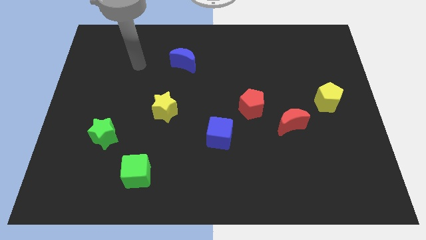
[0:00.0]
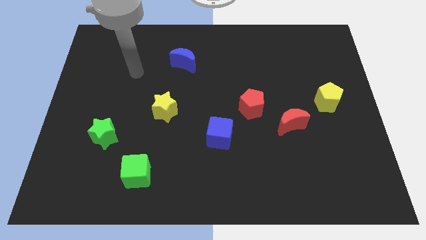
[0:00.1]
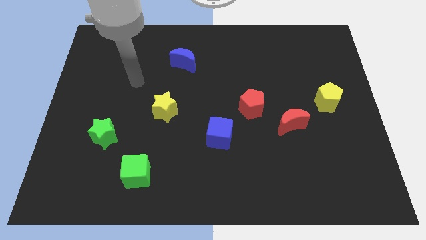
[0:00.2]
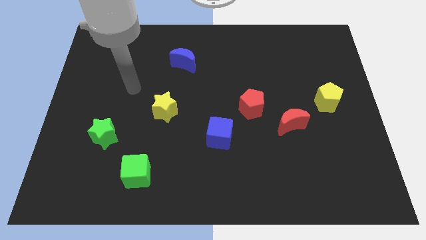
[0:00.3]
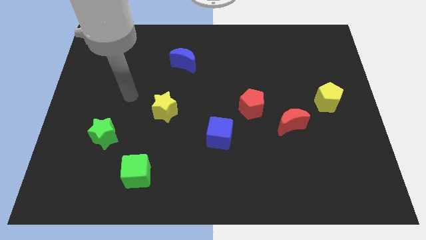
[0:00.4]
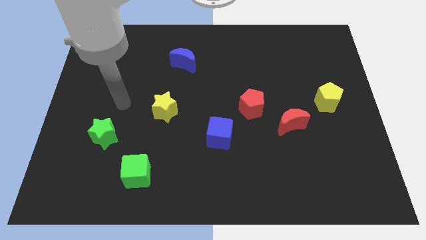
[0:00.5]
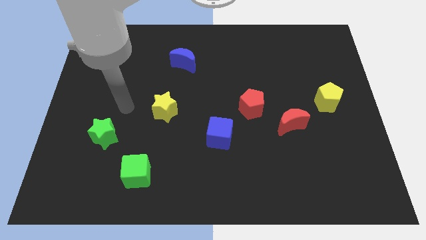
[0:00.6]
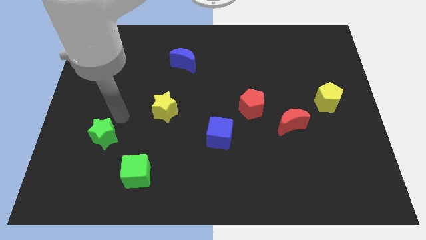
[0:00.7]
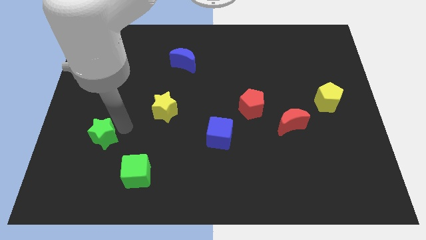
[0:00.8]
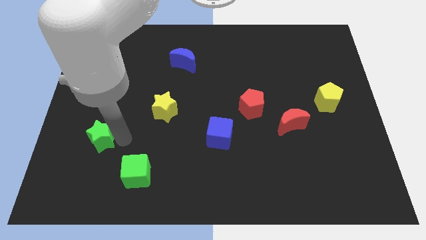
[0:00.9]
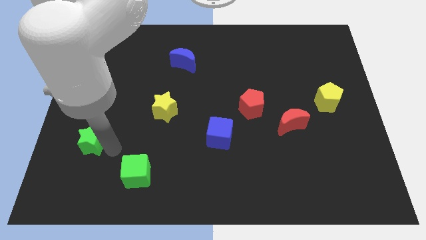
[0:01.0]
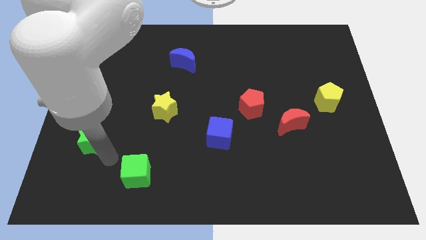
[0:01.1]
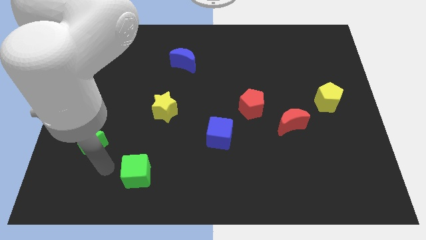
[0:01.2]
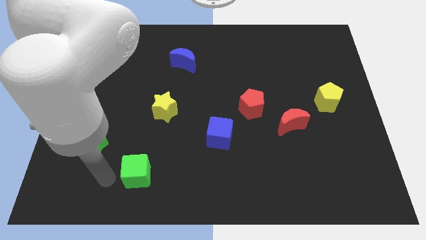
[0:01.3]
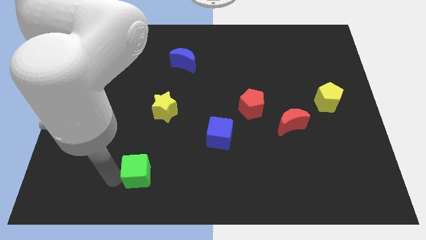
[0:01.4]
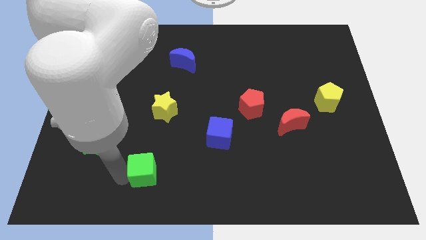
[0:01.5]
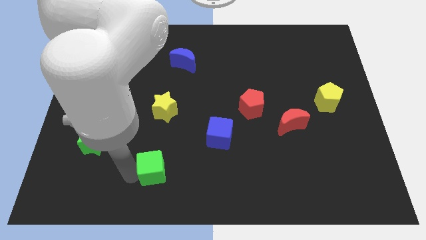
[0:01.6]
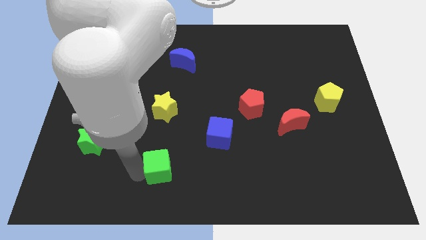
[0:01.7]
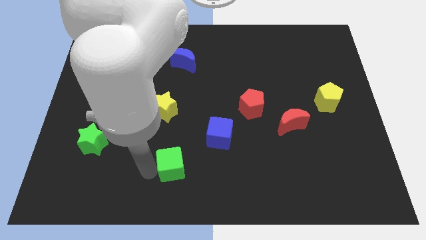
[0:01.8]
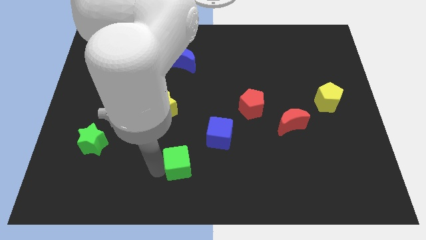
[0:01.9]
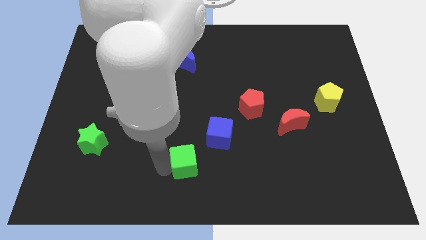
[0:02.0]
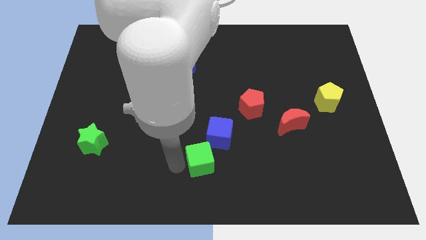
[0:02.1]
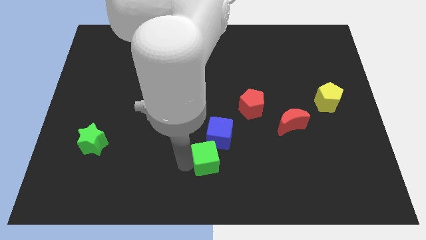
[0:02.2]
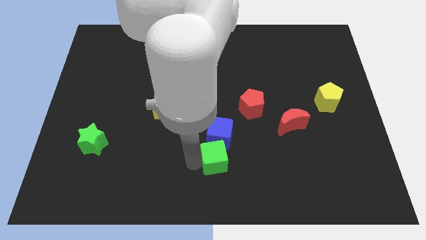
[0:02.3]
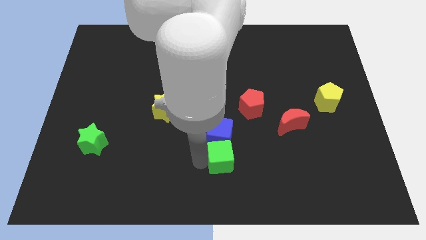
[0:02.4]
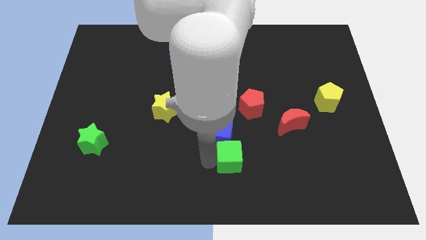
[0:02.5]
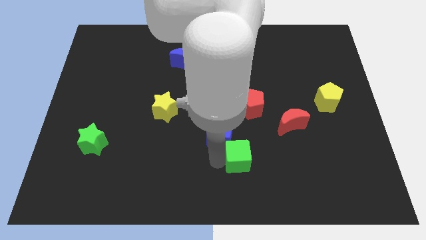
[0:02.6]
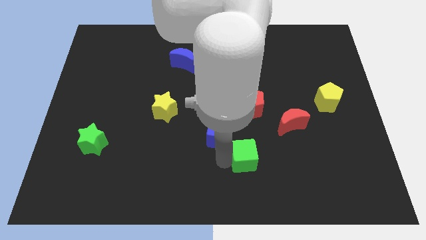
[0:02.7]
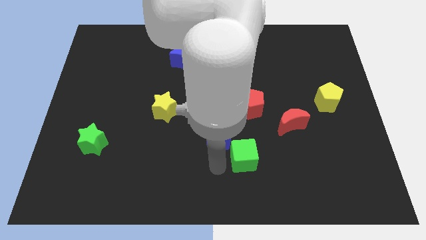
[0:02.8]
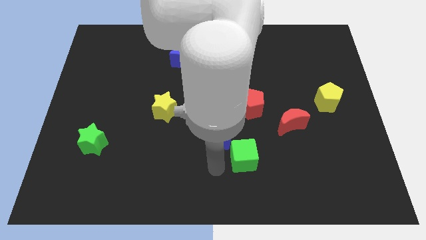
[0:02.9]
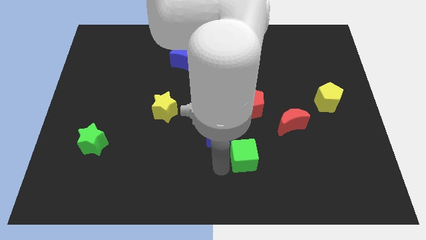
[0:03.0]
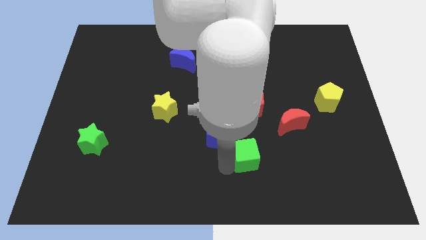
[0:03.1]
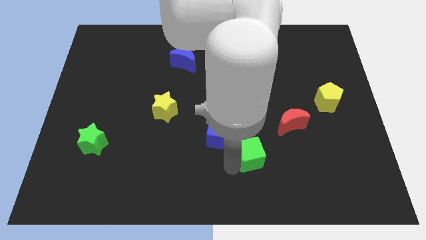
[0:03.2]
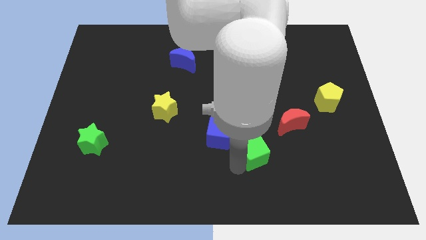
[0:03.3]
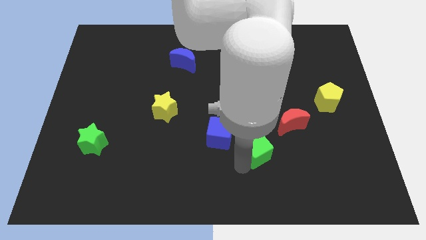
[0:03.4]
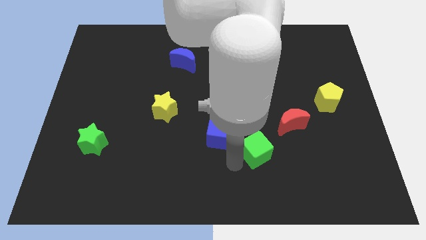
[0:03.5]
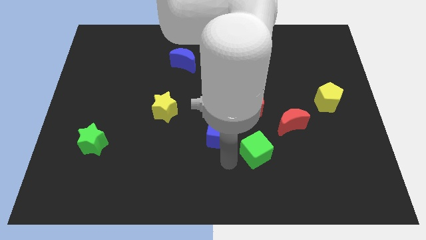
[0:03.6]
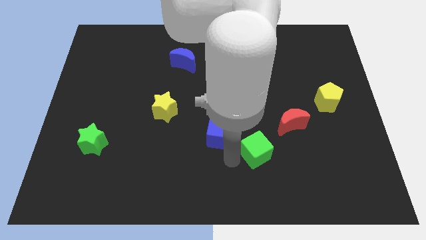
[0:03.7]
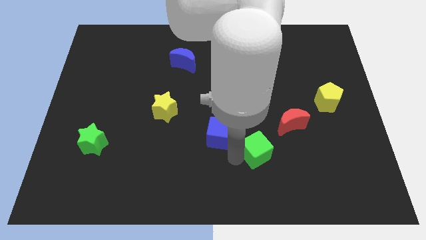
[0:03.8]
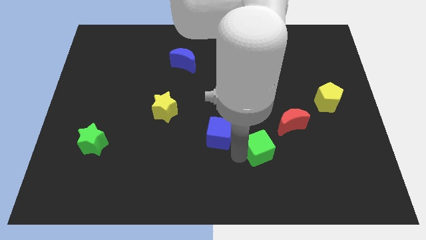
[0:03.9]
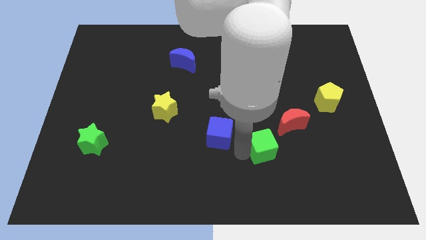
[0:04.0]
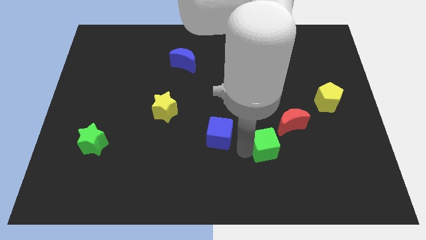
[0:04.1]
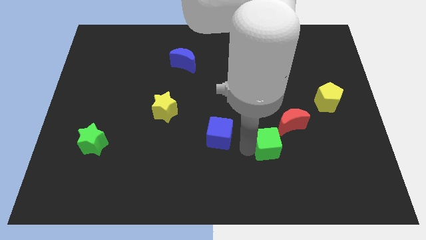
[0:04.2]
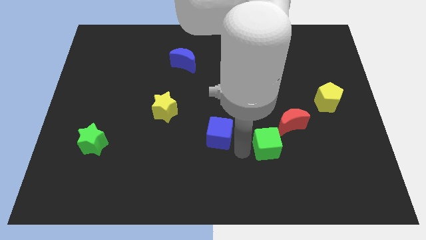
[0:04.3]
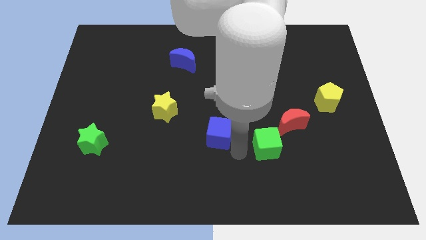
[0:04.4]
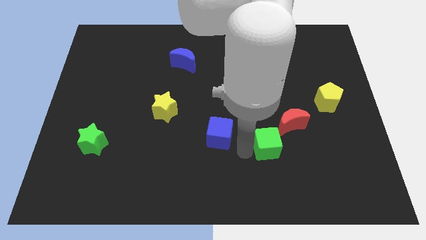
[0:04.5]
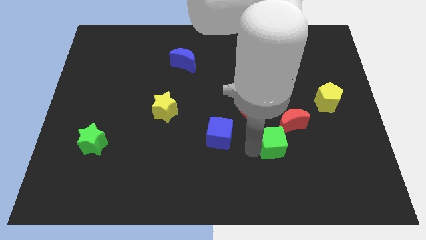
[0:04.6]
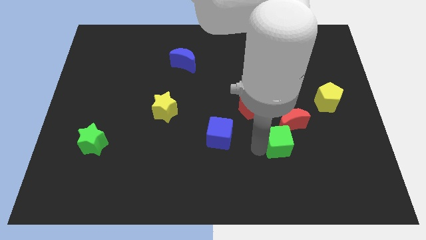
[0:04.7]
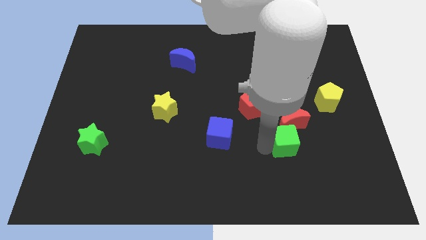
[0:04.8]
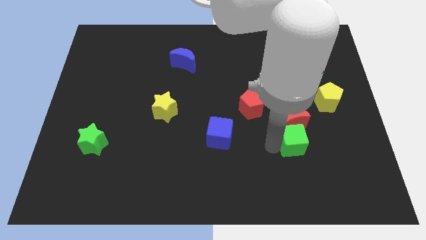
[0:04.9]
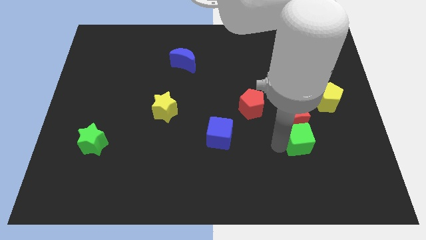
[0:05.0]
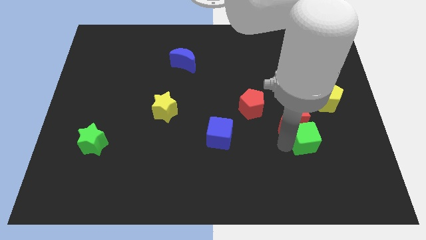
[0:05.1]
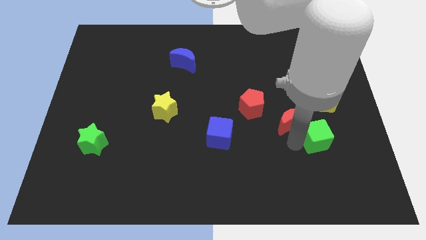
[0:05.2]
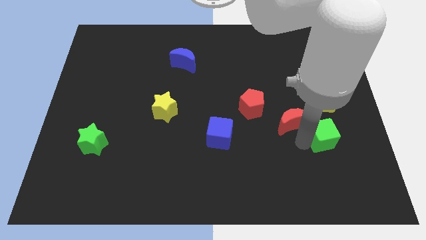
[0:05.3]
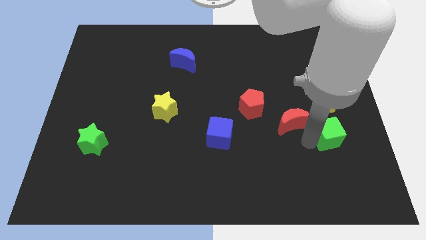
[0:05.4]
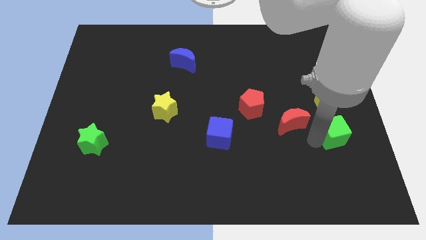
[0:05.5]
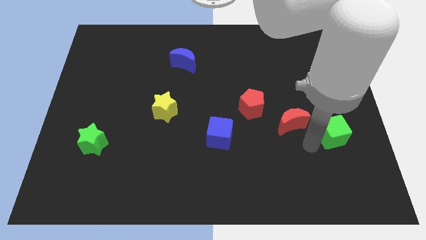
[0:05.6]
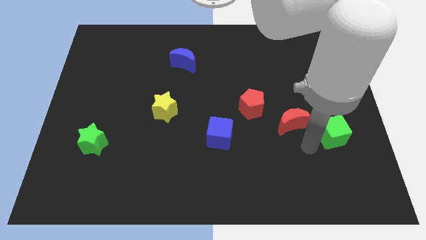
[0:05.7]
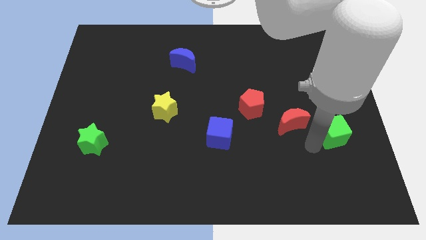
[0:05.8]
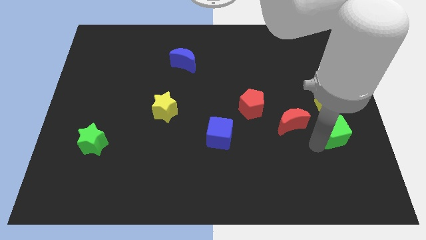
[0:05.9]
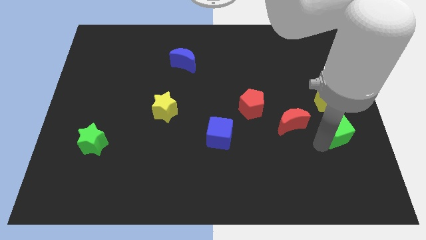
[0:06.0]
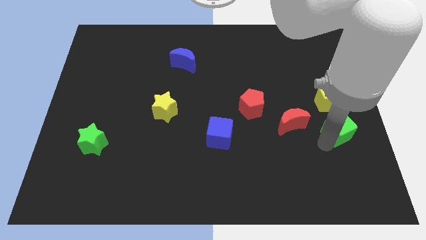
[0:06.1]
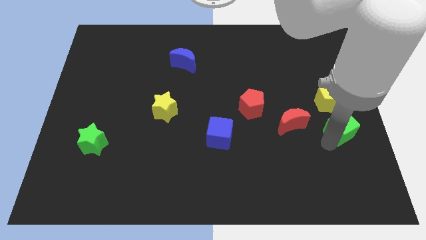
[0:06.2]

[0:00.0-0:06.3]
push the green cube to the right side
